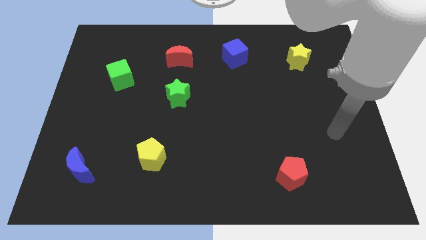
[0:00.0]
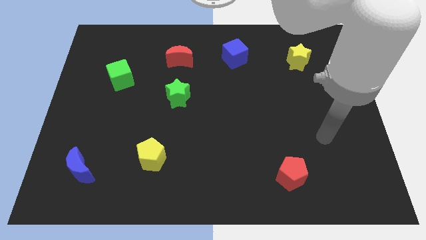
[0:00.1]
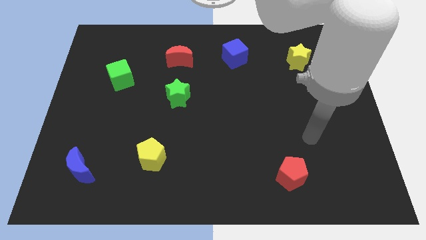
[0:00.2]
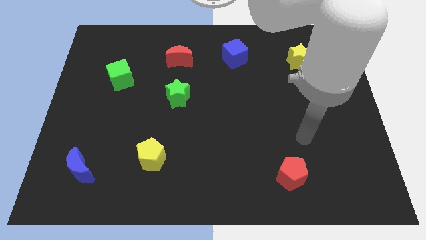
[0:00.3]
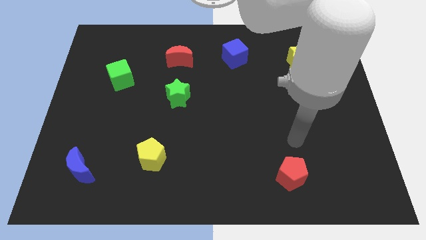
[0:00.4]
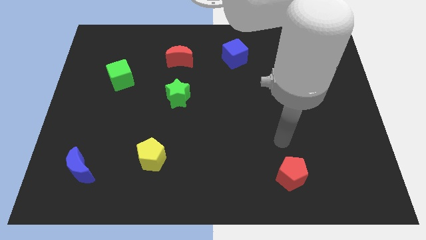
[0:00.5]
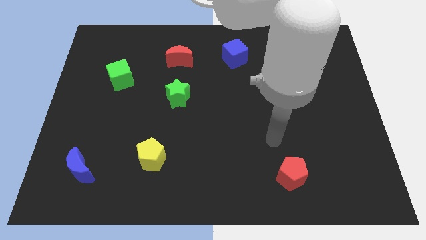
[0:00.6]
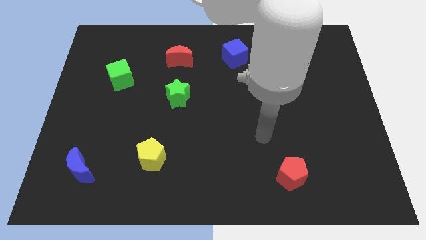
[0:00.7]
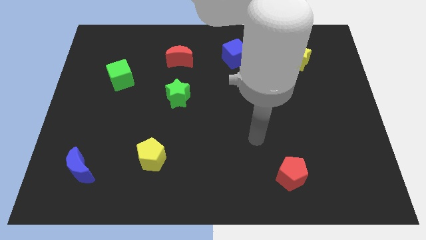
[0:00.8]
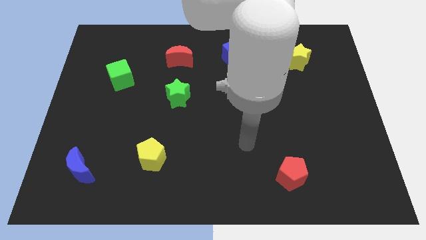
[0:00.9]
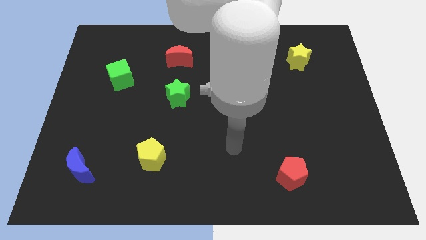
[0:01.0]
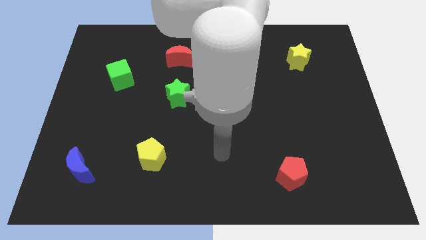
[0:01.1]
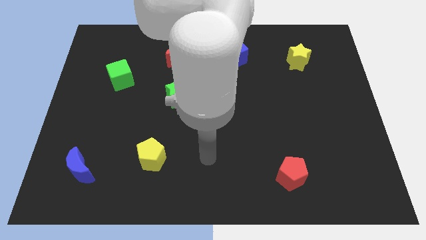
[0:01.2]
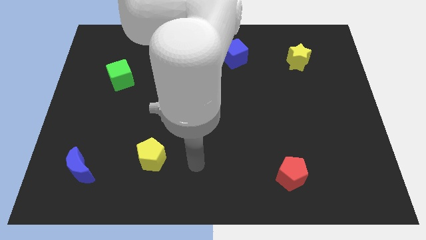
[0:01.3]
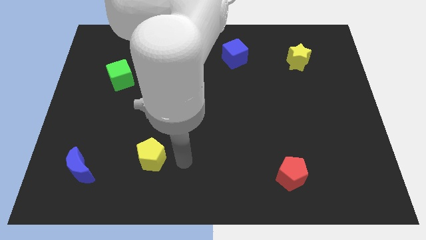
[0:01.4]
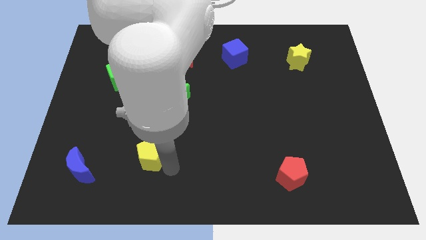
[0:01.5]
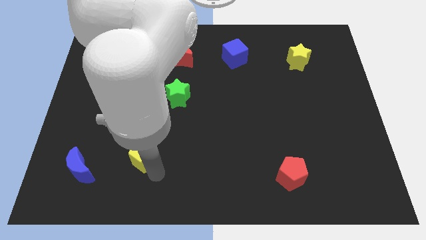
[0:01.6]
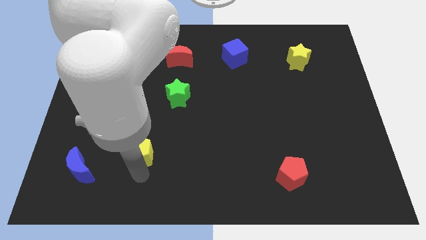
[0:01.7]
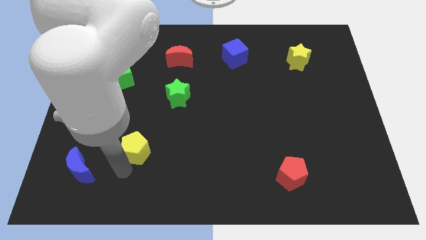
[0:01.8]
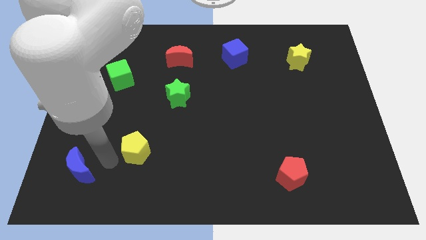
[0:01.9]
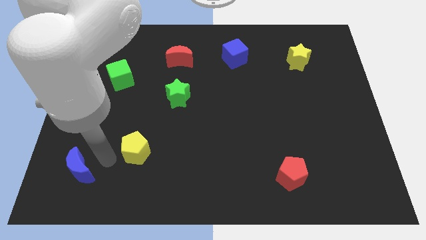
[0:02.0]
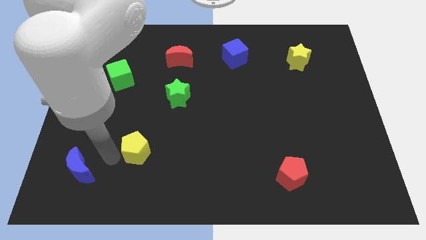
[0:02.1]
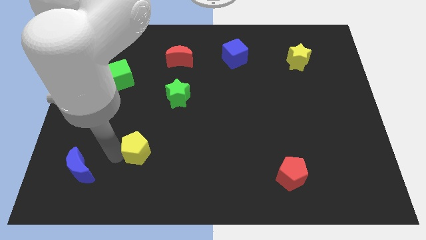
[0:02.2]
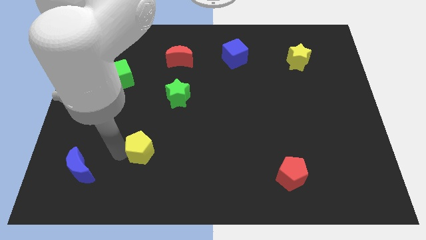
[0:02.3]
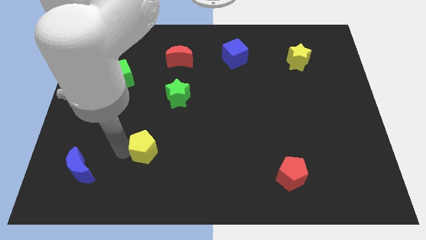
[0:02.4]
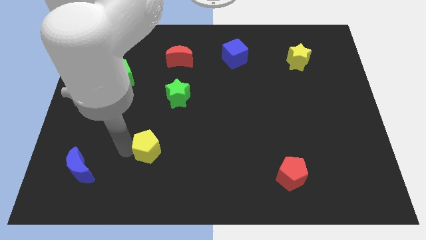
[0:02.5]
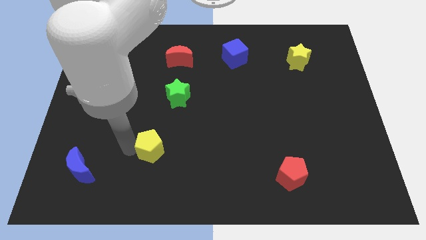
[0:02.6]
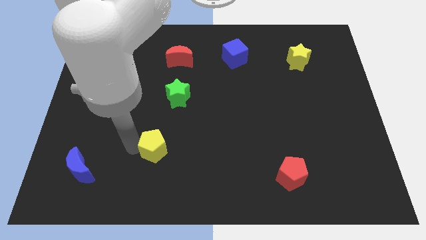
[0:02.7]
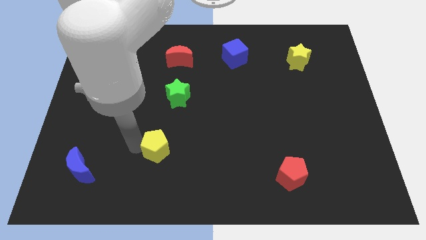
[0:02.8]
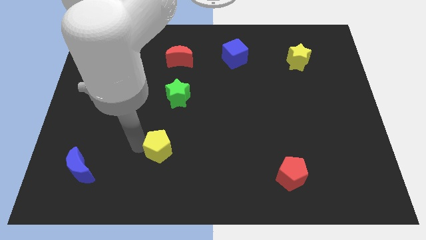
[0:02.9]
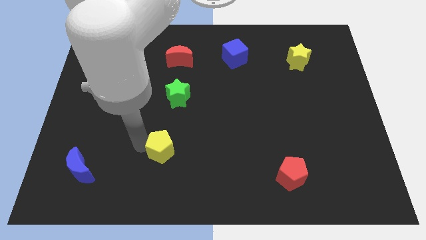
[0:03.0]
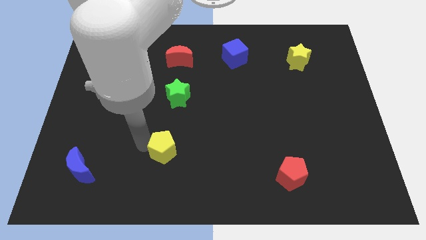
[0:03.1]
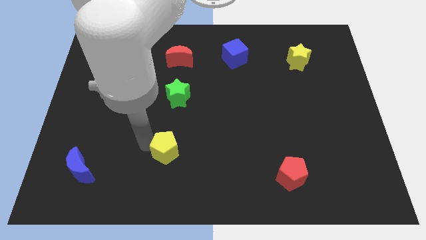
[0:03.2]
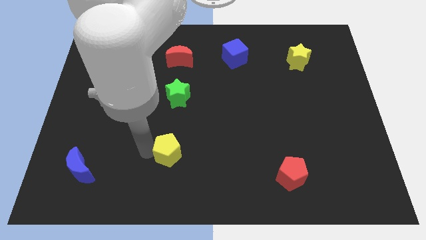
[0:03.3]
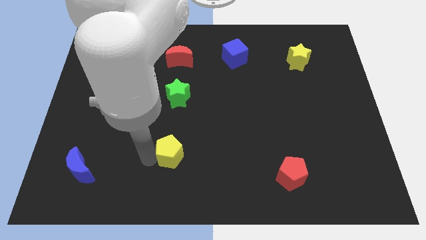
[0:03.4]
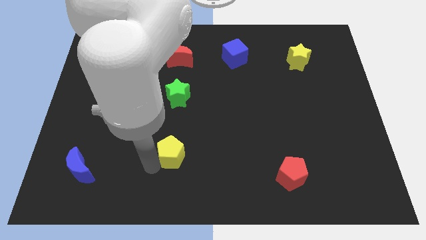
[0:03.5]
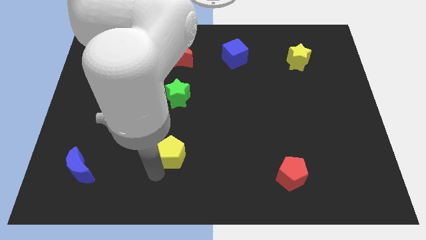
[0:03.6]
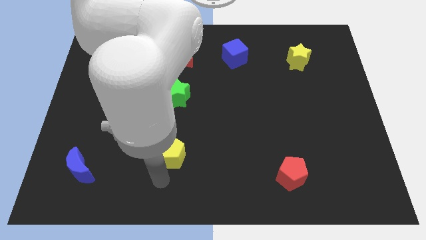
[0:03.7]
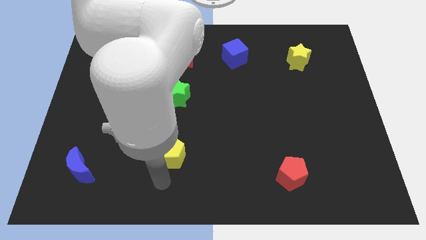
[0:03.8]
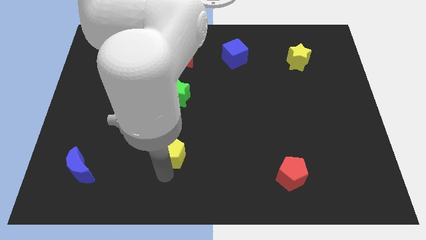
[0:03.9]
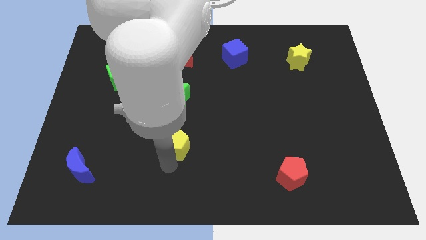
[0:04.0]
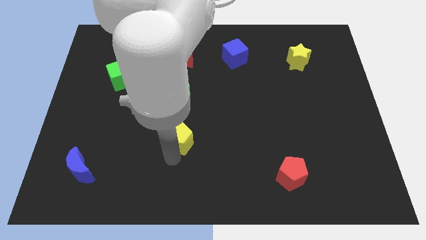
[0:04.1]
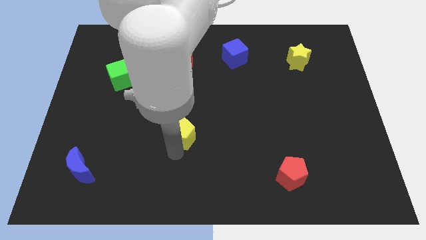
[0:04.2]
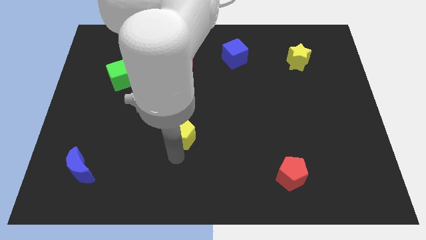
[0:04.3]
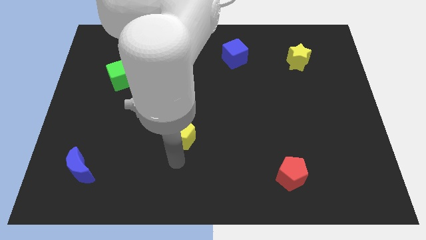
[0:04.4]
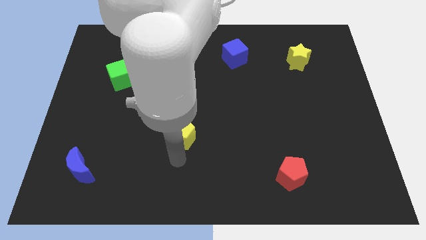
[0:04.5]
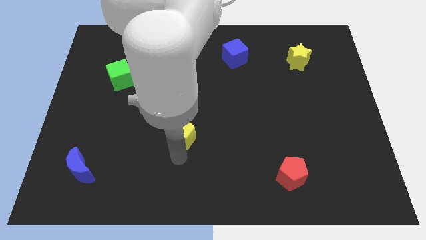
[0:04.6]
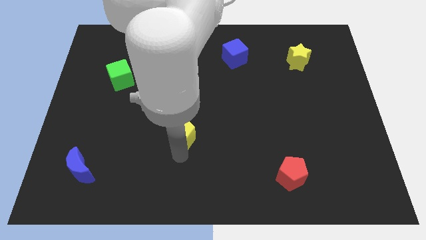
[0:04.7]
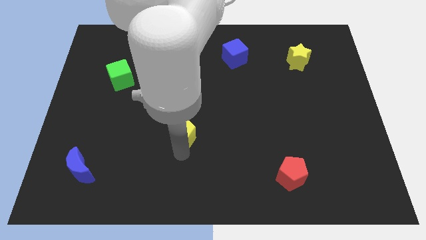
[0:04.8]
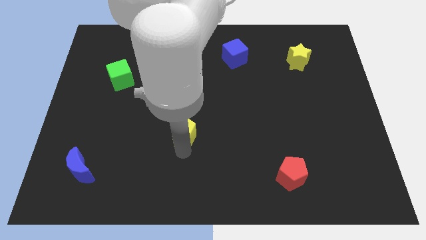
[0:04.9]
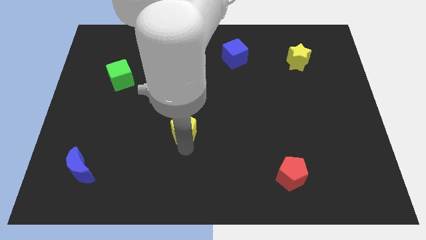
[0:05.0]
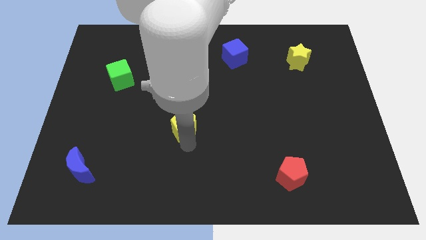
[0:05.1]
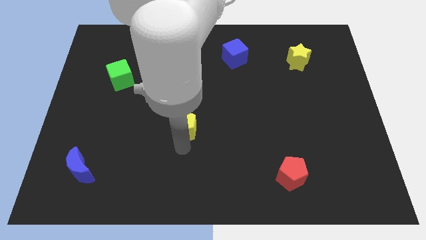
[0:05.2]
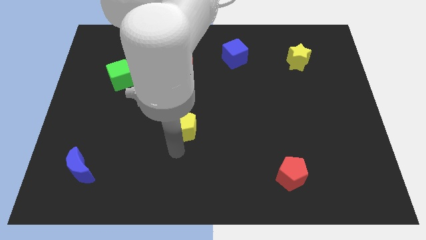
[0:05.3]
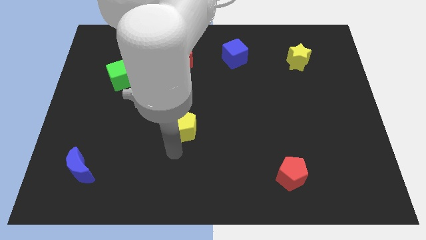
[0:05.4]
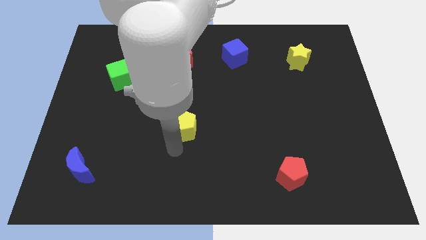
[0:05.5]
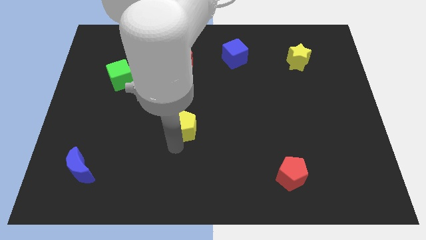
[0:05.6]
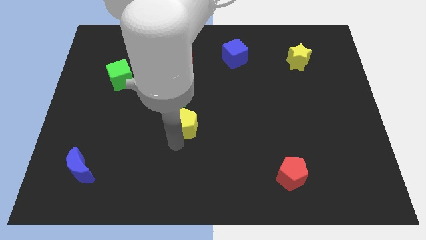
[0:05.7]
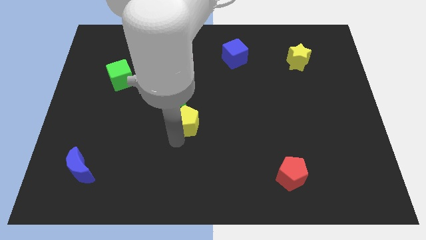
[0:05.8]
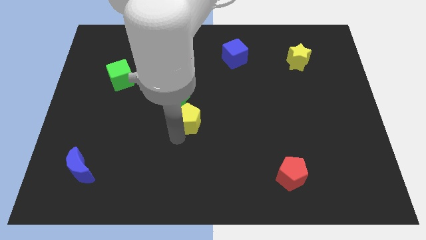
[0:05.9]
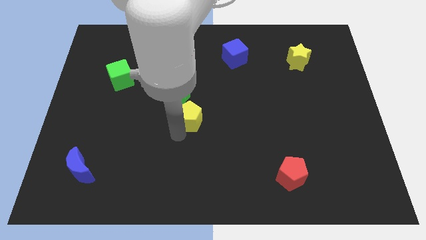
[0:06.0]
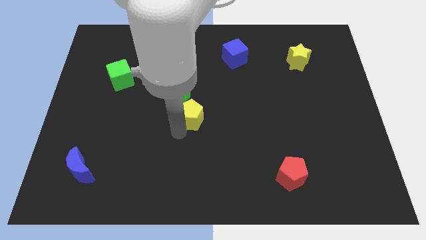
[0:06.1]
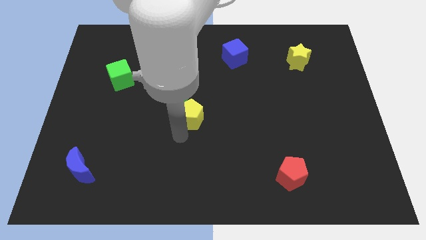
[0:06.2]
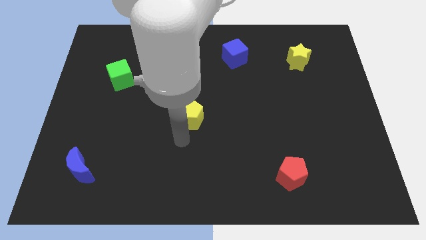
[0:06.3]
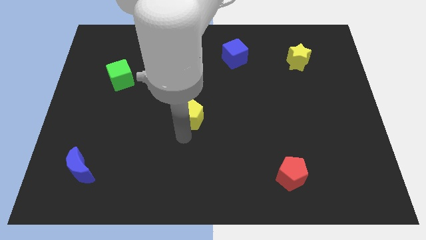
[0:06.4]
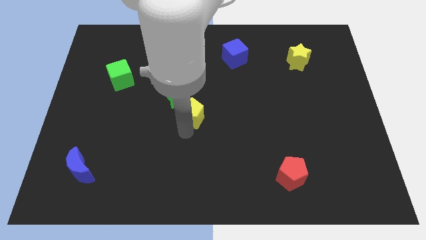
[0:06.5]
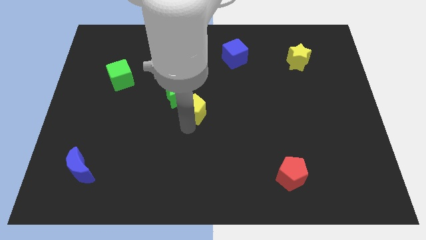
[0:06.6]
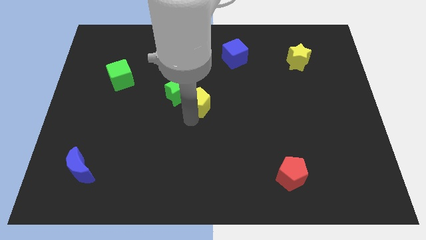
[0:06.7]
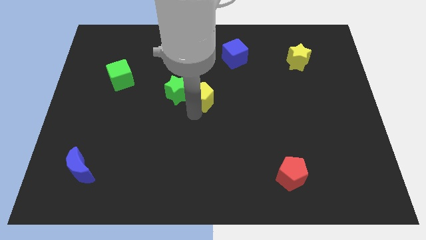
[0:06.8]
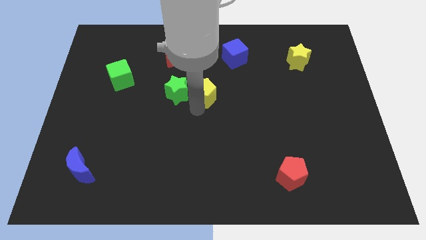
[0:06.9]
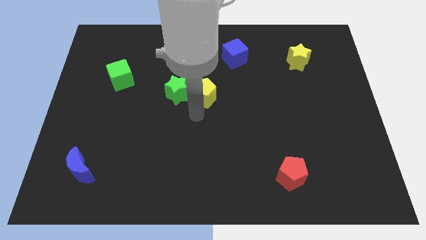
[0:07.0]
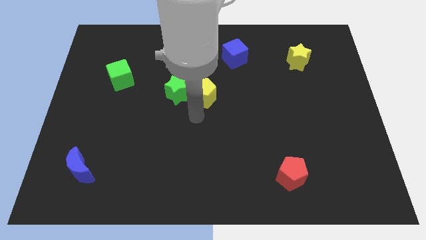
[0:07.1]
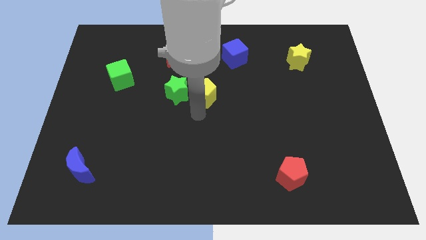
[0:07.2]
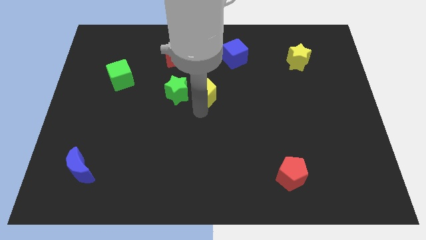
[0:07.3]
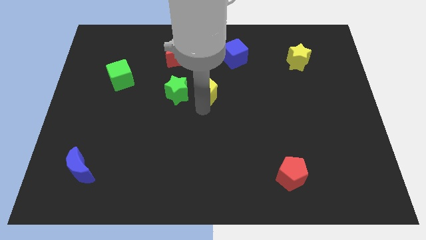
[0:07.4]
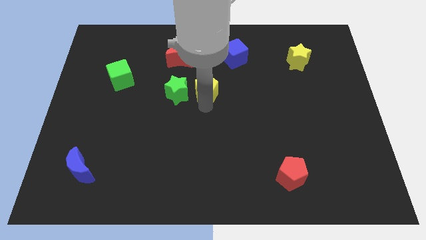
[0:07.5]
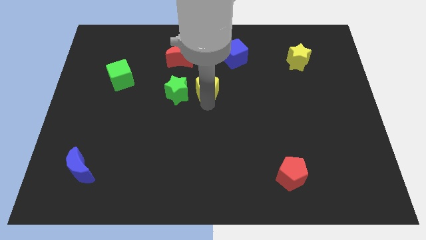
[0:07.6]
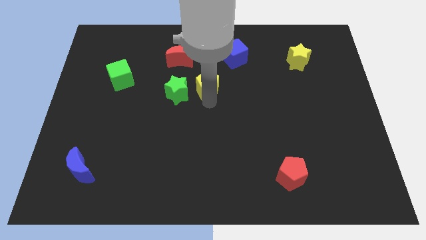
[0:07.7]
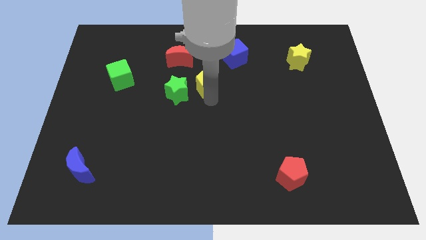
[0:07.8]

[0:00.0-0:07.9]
move the yellow pentagon to the bottom left of the blue cube
